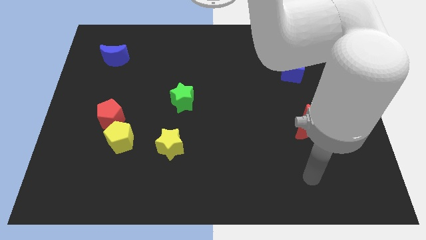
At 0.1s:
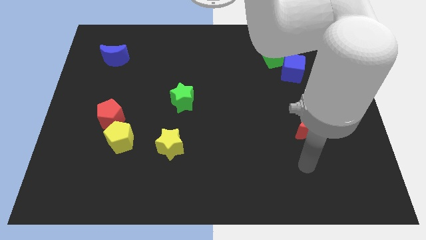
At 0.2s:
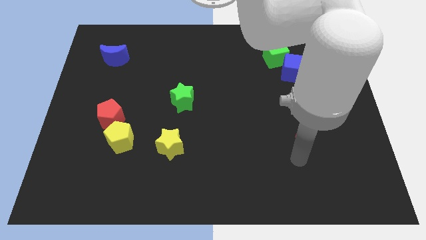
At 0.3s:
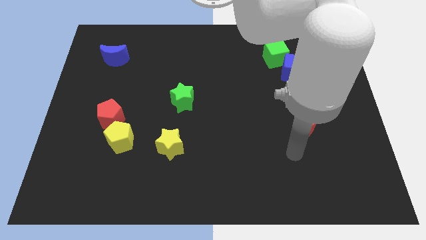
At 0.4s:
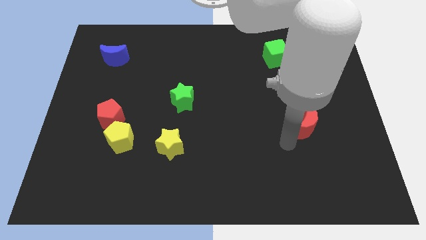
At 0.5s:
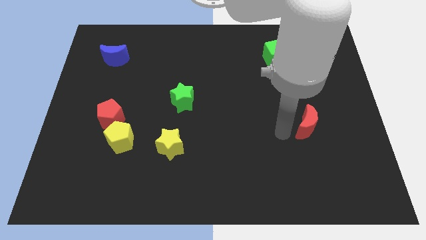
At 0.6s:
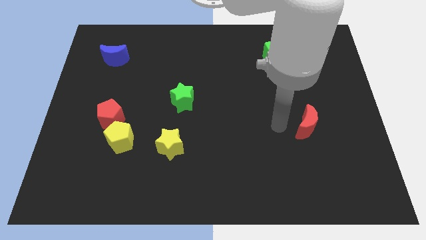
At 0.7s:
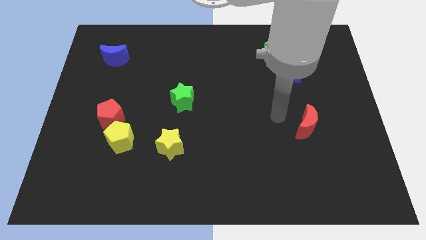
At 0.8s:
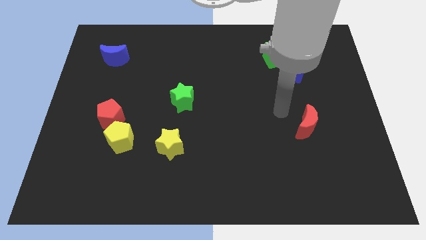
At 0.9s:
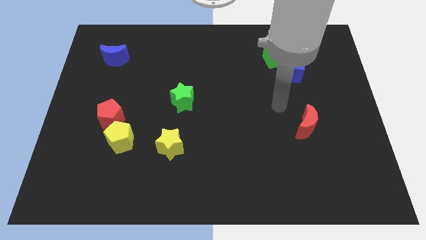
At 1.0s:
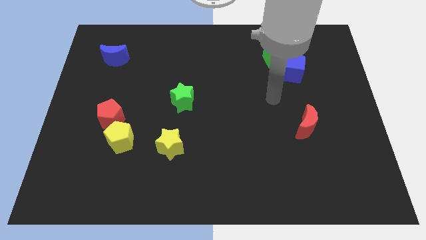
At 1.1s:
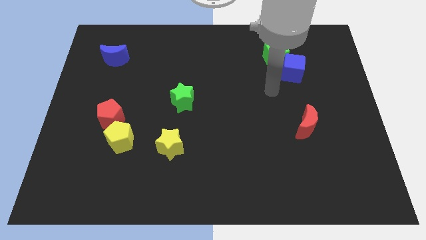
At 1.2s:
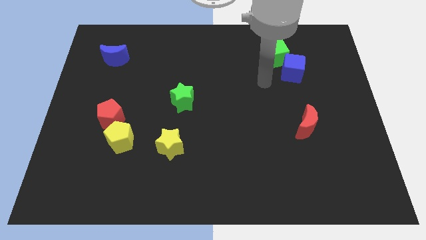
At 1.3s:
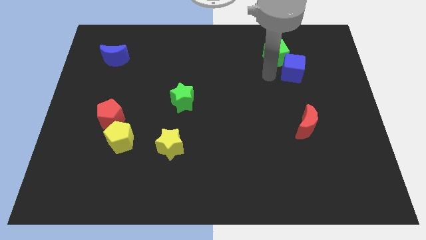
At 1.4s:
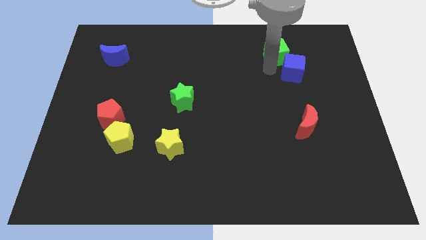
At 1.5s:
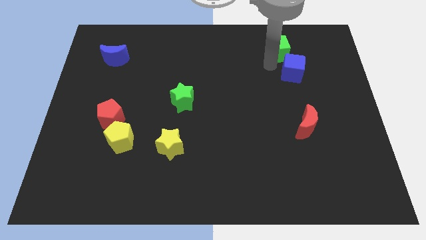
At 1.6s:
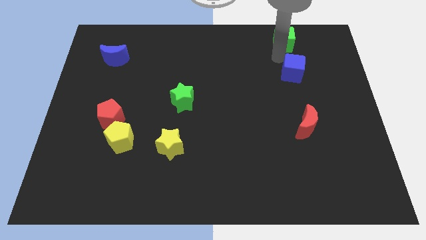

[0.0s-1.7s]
pull the blue cube apart from the green cube

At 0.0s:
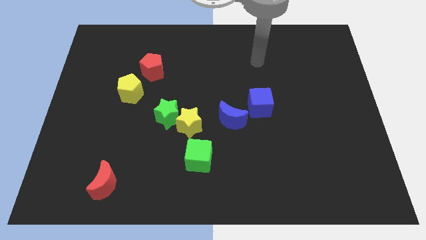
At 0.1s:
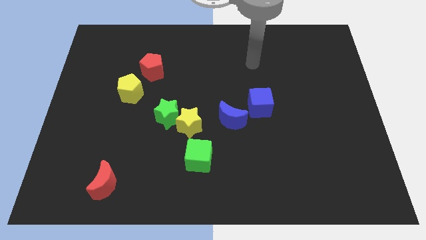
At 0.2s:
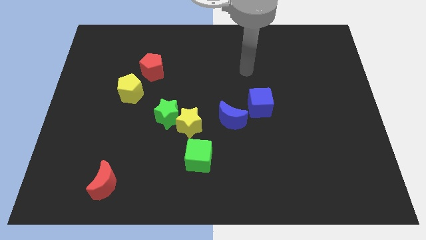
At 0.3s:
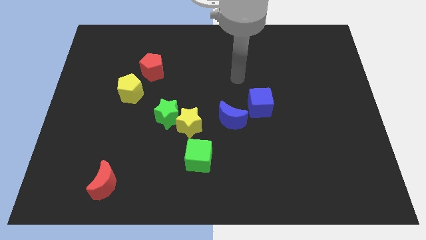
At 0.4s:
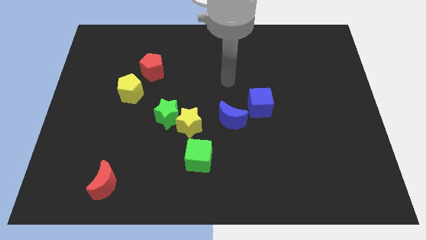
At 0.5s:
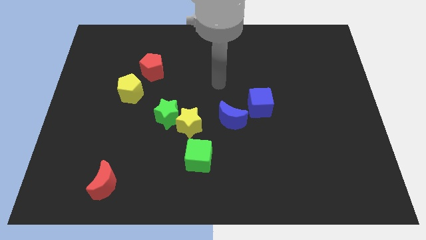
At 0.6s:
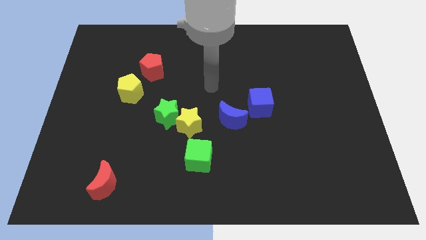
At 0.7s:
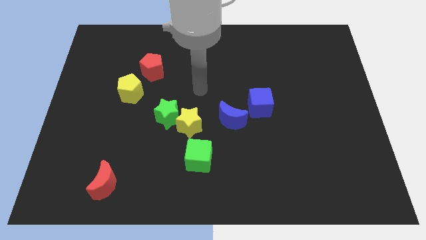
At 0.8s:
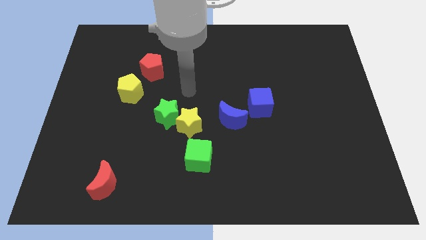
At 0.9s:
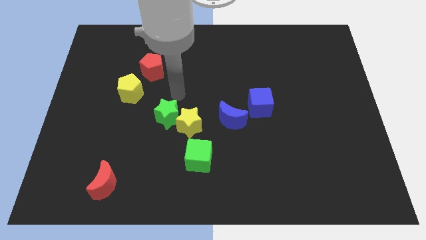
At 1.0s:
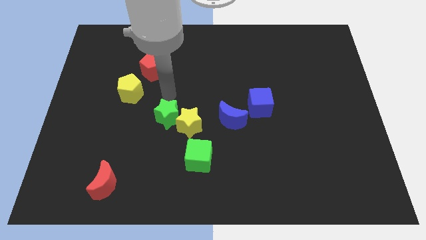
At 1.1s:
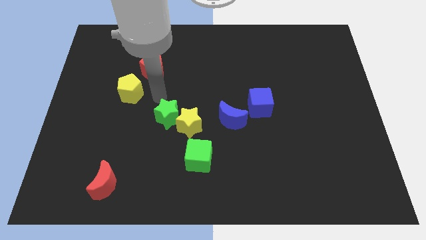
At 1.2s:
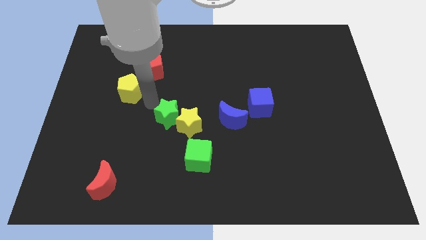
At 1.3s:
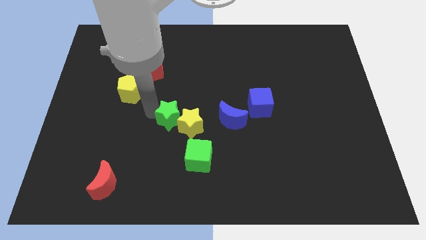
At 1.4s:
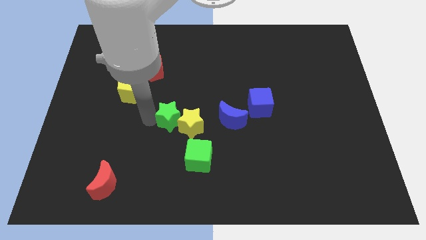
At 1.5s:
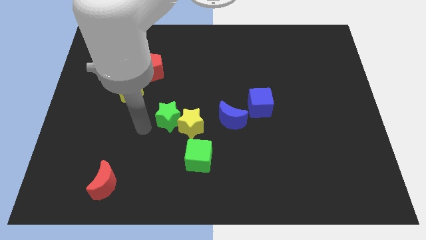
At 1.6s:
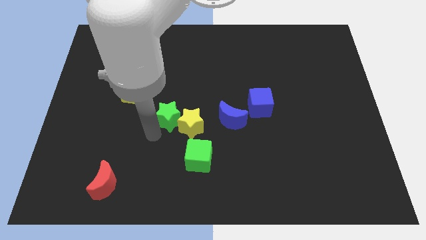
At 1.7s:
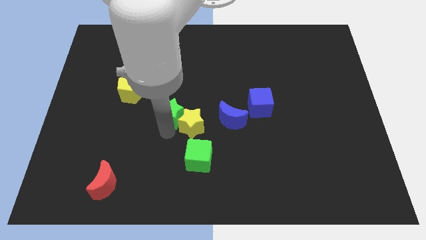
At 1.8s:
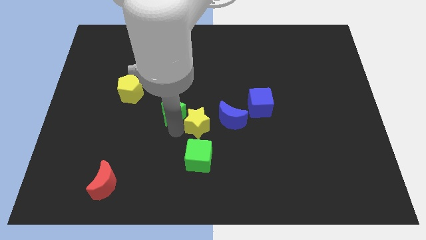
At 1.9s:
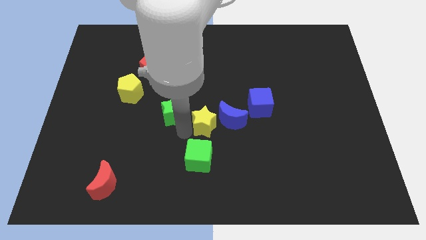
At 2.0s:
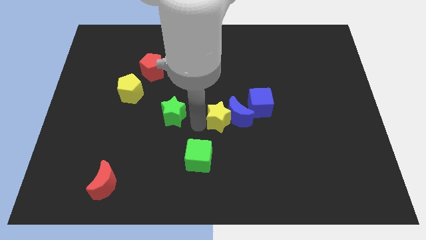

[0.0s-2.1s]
move the green star away from the yellow star

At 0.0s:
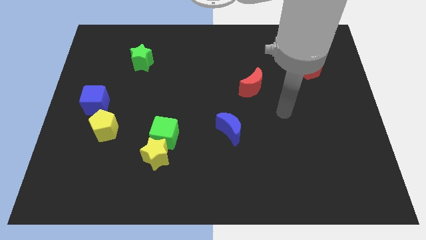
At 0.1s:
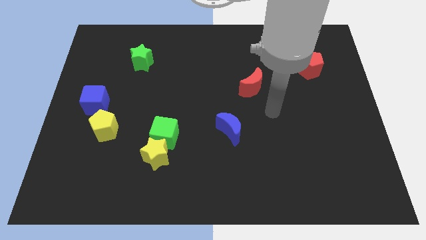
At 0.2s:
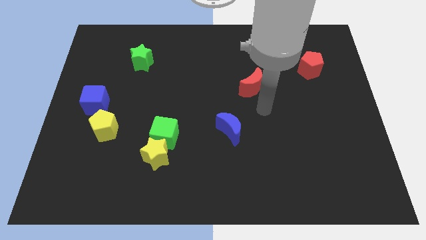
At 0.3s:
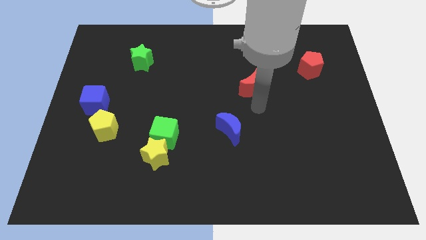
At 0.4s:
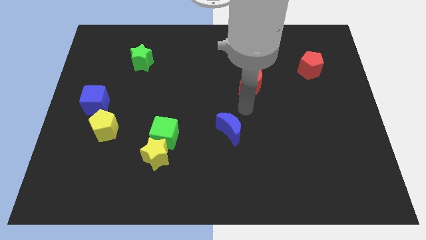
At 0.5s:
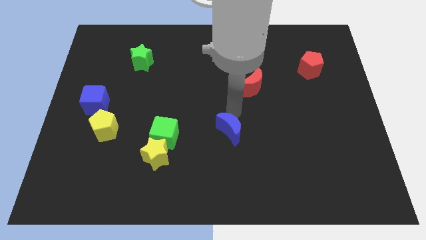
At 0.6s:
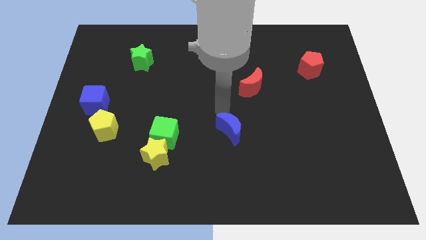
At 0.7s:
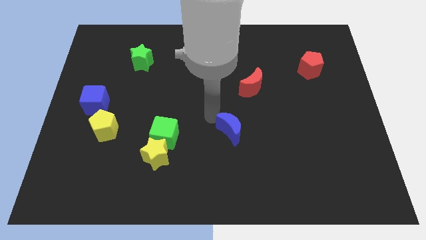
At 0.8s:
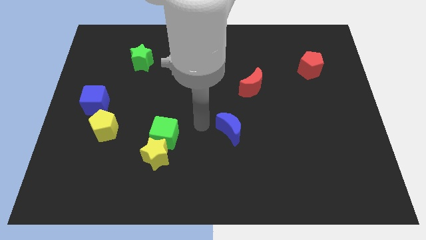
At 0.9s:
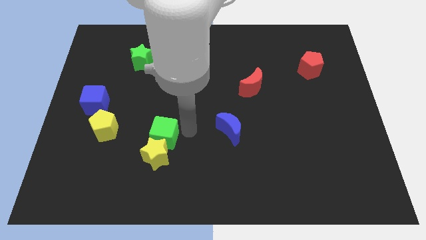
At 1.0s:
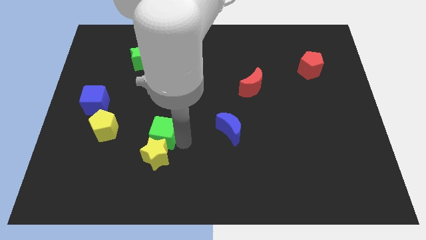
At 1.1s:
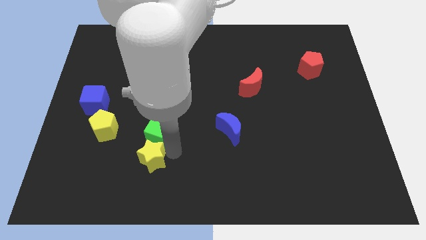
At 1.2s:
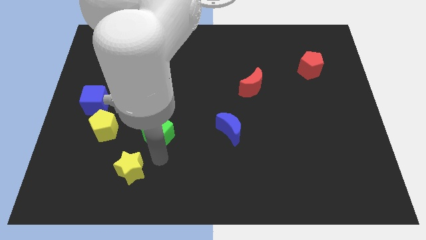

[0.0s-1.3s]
separate the green cube from the yellow star

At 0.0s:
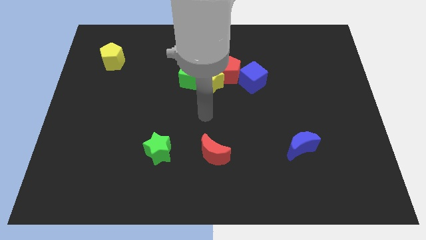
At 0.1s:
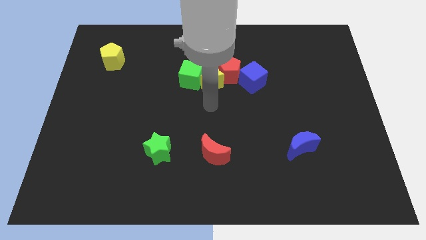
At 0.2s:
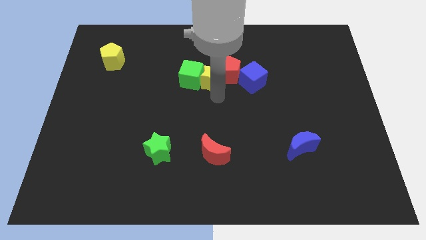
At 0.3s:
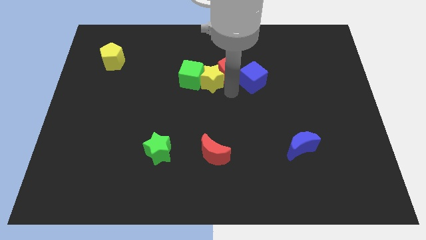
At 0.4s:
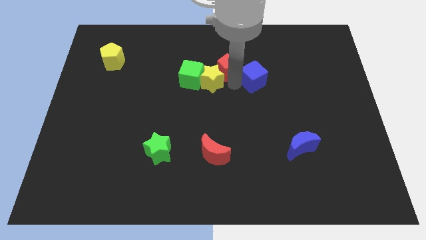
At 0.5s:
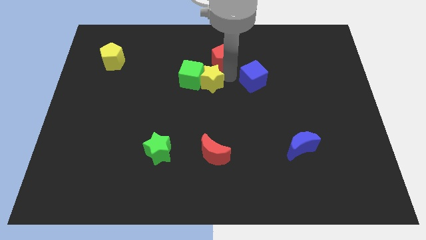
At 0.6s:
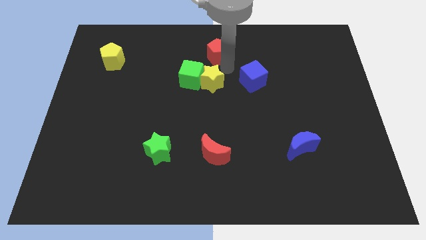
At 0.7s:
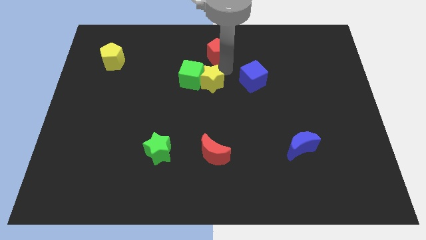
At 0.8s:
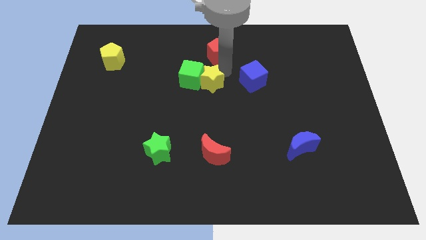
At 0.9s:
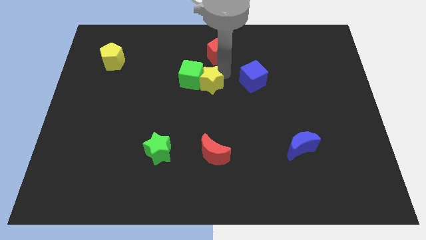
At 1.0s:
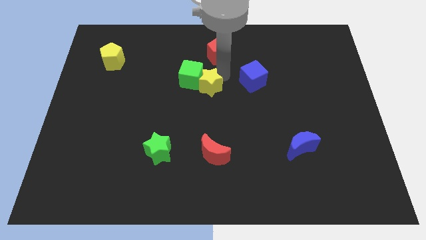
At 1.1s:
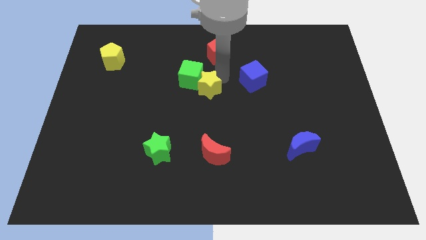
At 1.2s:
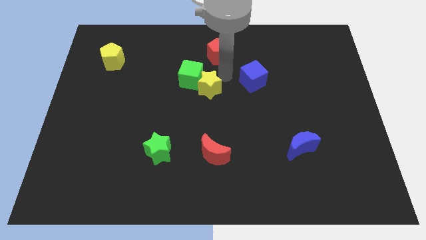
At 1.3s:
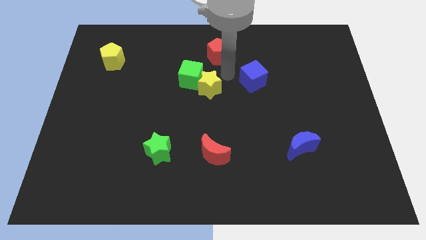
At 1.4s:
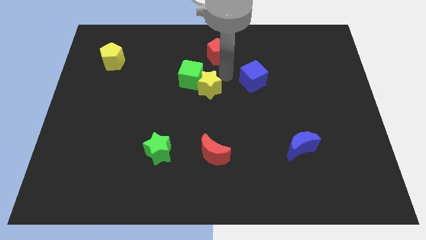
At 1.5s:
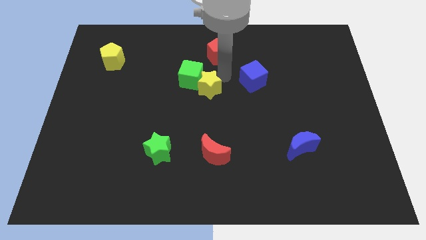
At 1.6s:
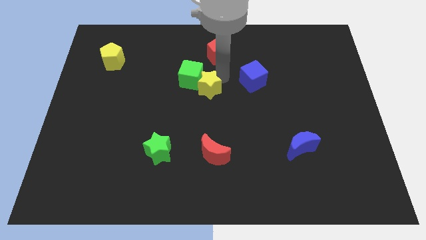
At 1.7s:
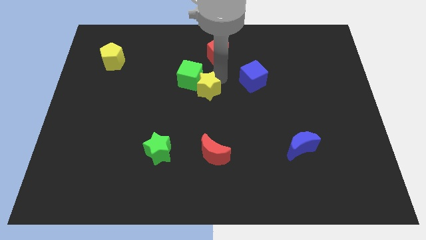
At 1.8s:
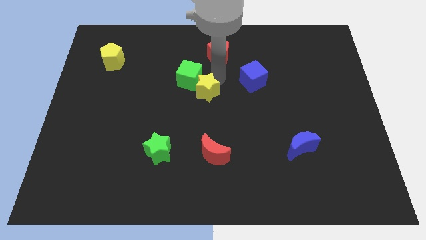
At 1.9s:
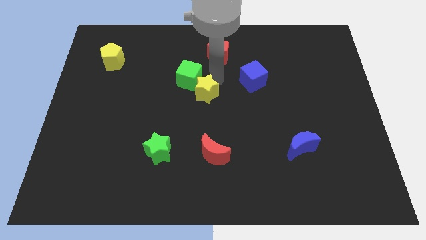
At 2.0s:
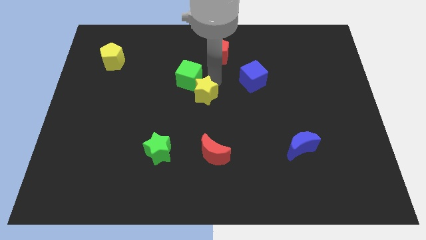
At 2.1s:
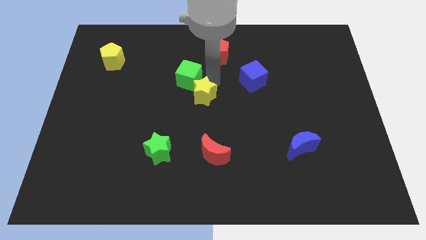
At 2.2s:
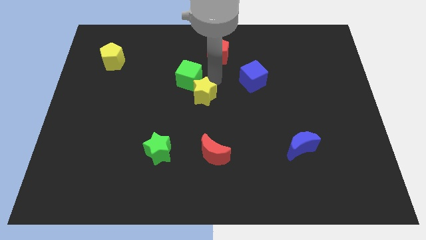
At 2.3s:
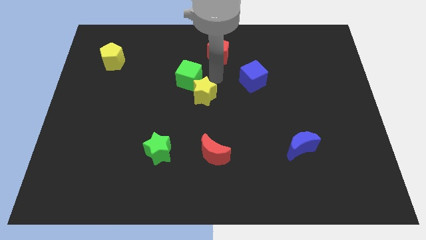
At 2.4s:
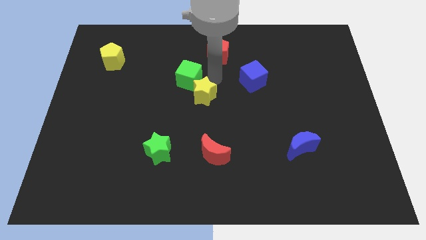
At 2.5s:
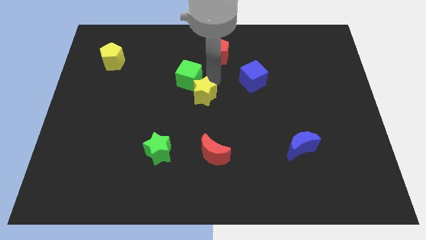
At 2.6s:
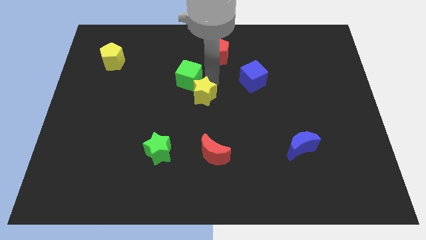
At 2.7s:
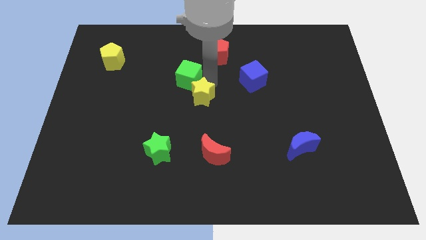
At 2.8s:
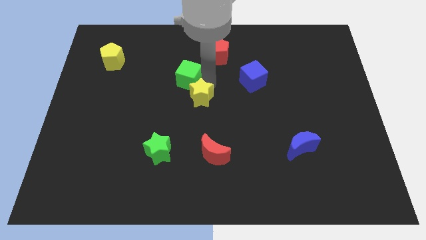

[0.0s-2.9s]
separate the yellow star from the green cube, red pentagon, and blue cube

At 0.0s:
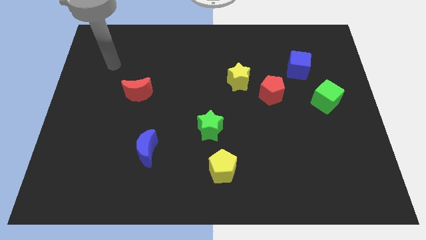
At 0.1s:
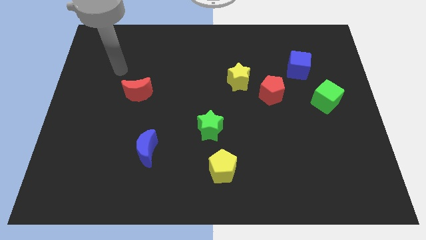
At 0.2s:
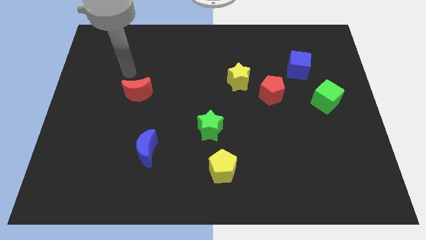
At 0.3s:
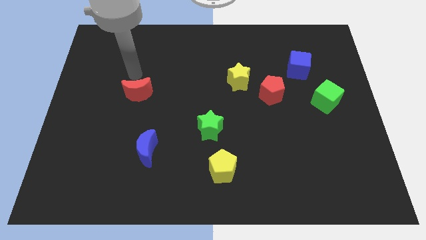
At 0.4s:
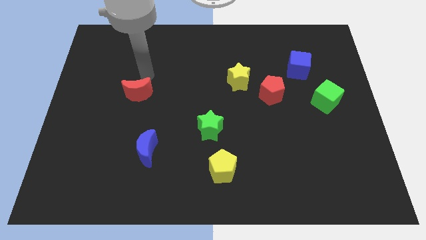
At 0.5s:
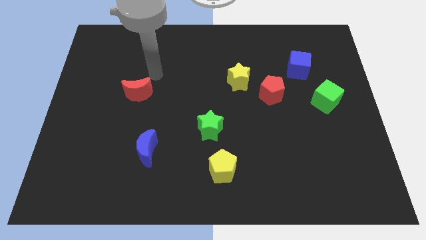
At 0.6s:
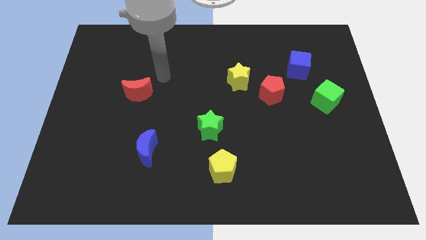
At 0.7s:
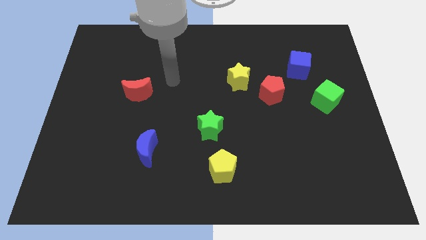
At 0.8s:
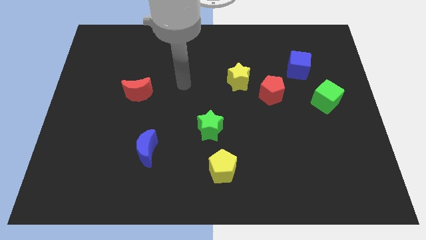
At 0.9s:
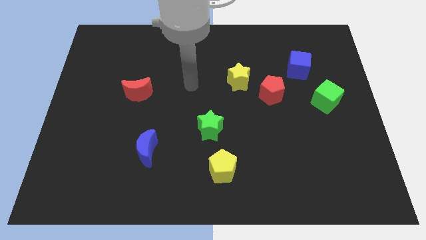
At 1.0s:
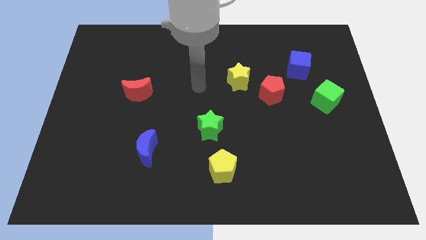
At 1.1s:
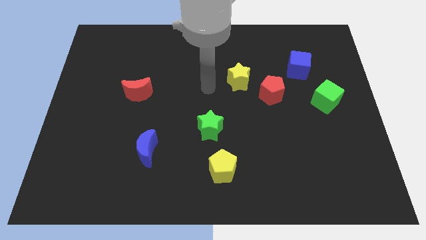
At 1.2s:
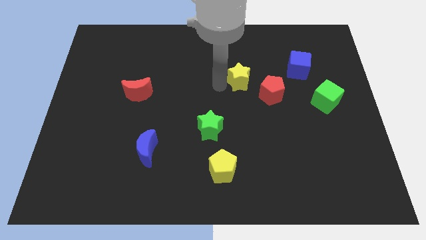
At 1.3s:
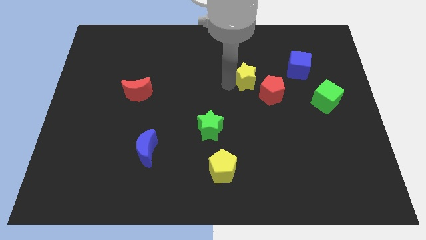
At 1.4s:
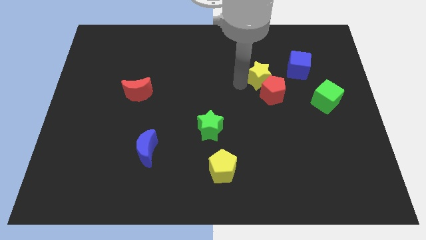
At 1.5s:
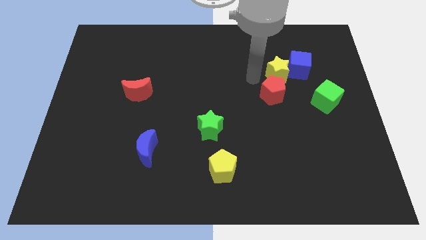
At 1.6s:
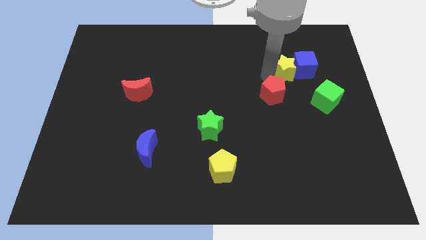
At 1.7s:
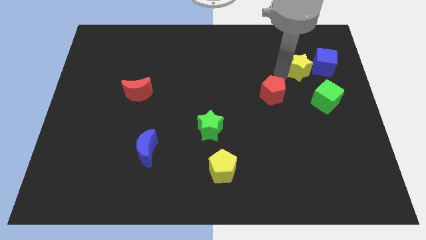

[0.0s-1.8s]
pull the red pentagon apart from the yellow star
